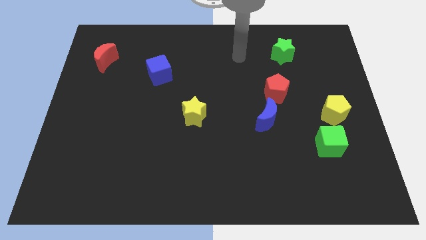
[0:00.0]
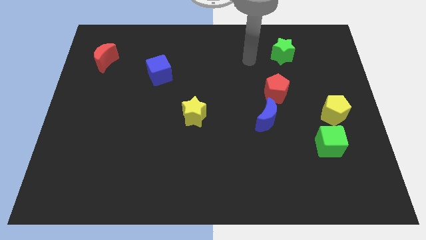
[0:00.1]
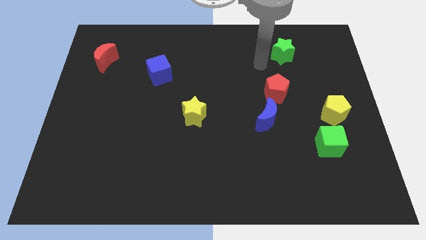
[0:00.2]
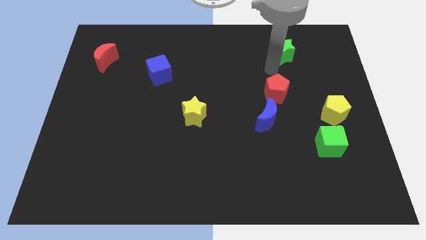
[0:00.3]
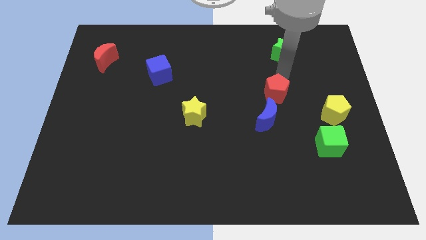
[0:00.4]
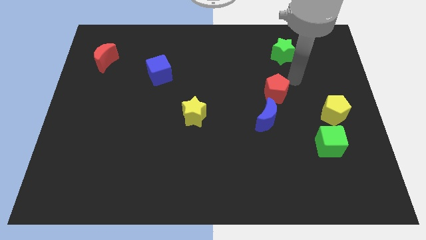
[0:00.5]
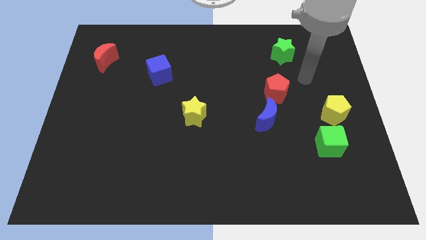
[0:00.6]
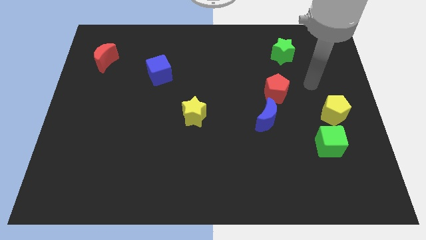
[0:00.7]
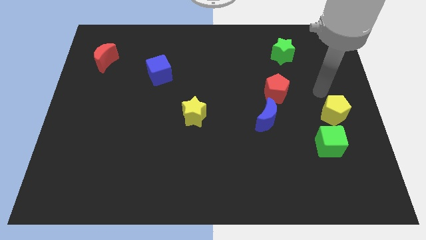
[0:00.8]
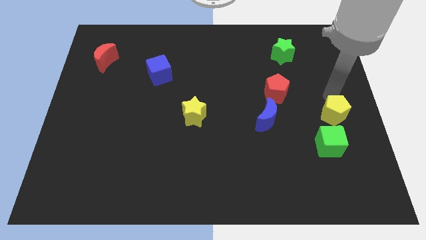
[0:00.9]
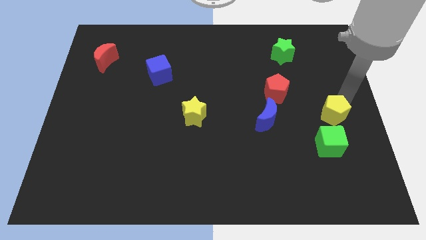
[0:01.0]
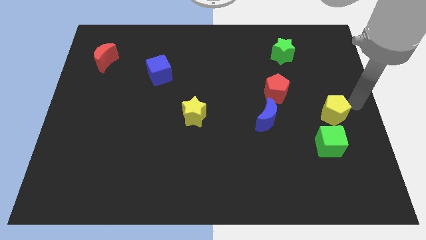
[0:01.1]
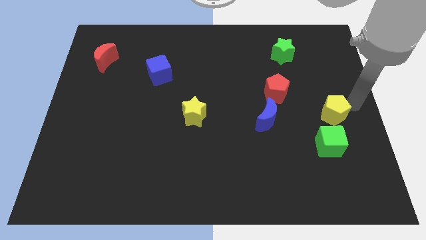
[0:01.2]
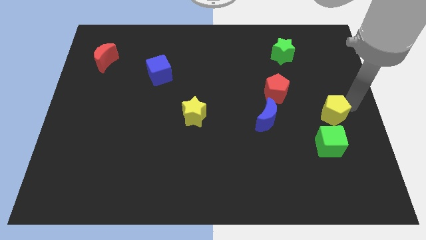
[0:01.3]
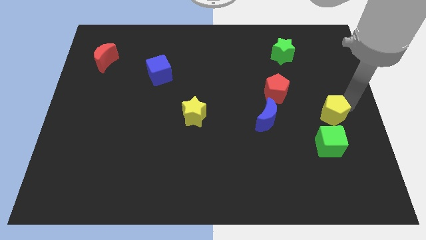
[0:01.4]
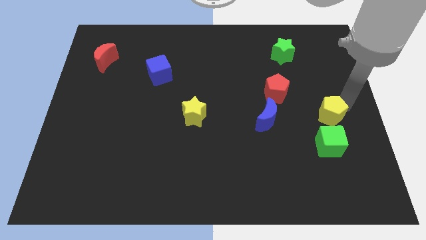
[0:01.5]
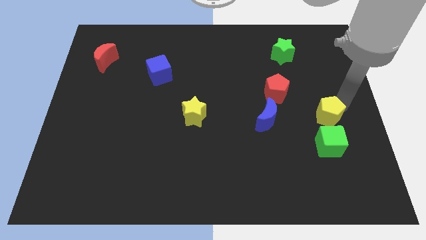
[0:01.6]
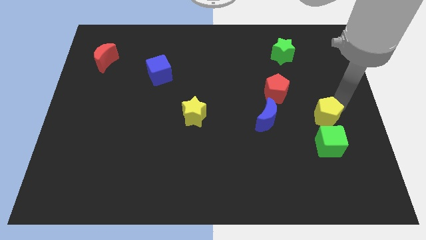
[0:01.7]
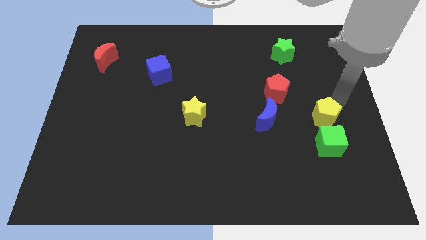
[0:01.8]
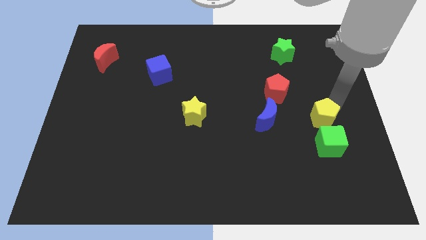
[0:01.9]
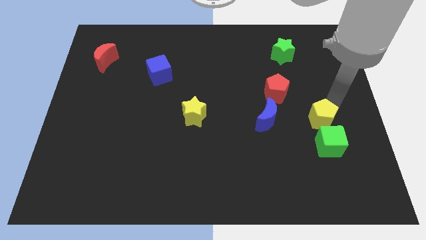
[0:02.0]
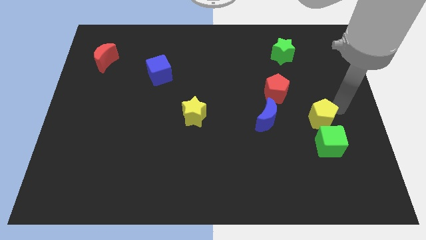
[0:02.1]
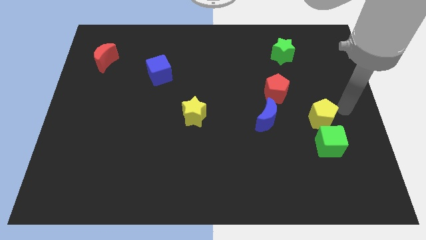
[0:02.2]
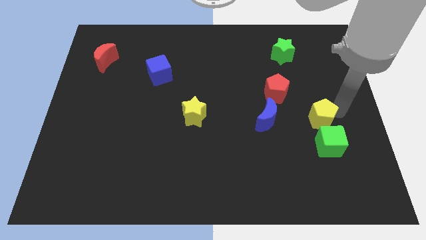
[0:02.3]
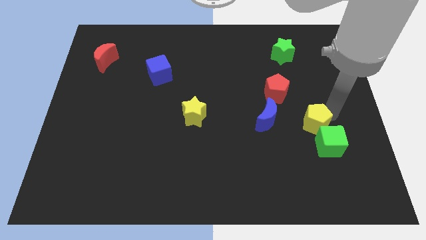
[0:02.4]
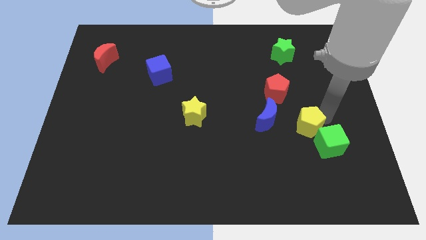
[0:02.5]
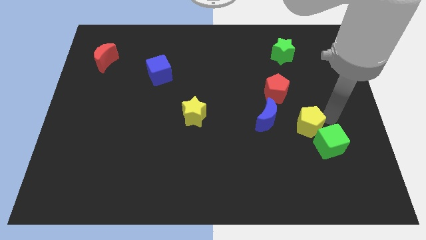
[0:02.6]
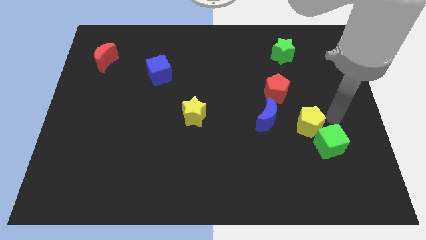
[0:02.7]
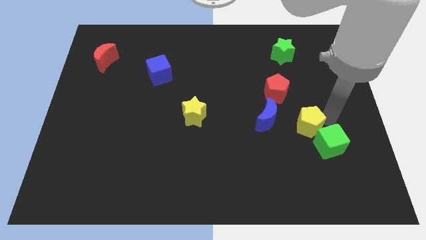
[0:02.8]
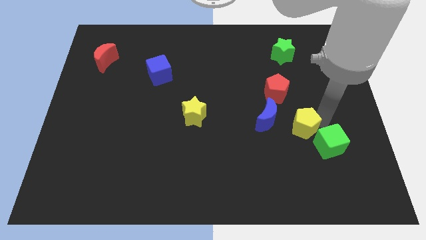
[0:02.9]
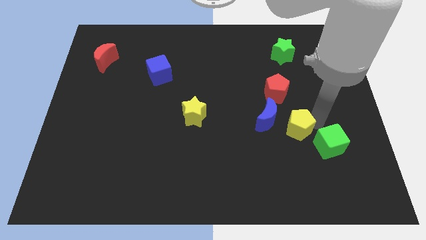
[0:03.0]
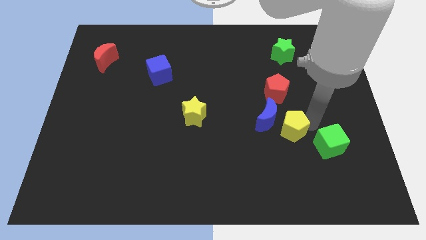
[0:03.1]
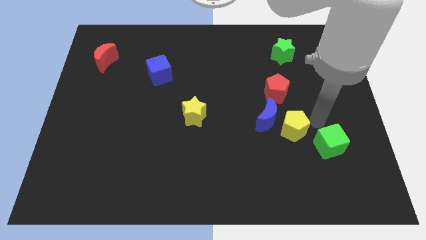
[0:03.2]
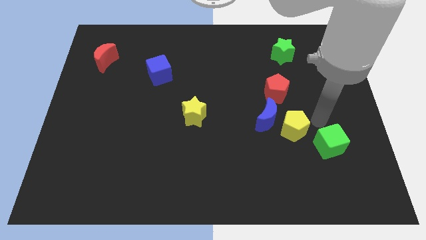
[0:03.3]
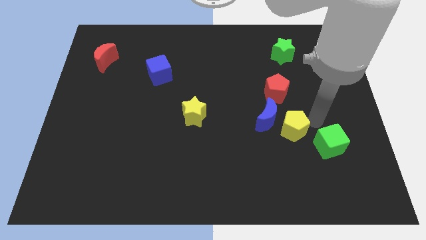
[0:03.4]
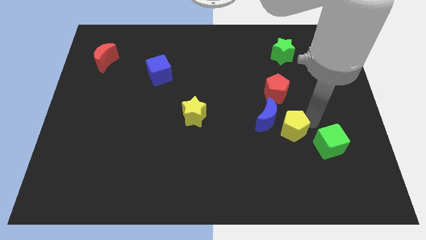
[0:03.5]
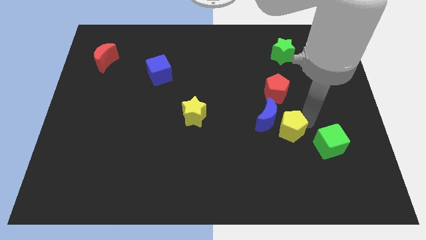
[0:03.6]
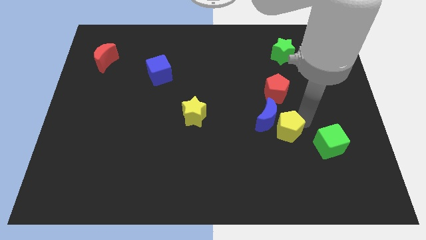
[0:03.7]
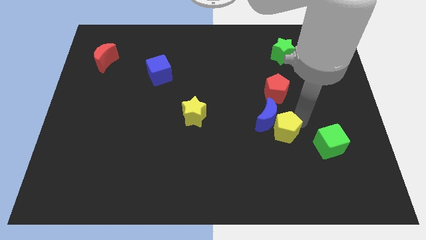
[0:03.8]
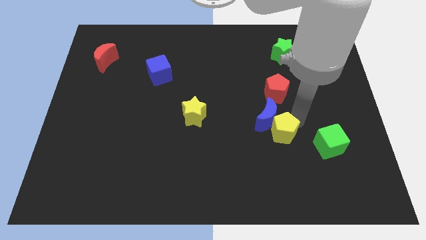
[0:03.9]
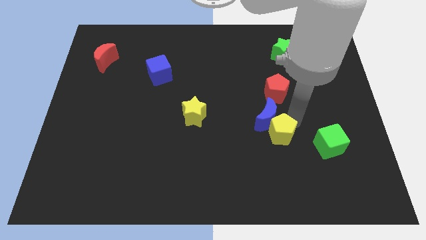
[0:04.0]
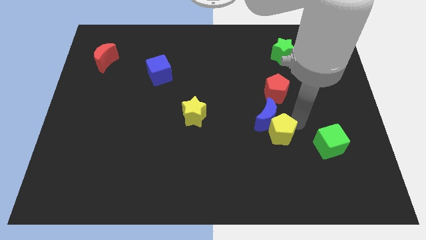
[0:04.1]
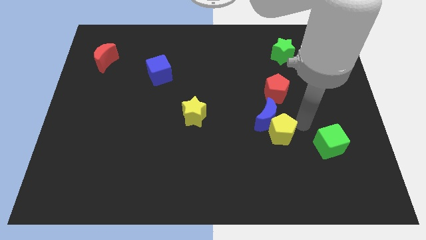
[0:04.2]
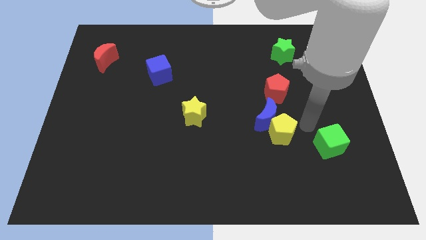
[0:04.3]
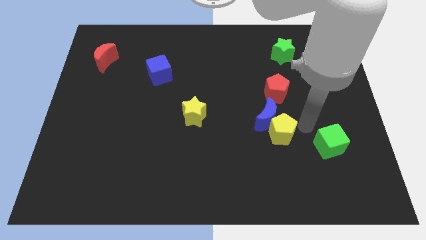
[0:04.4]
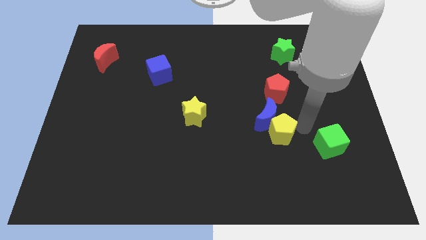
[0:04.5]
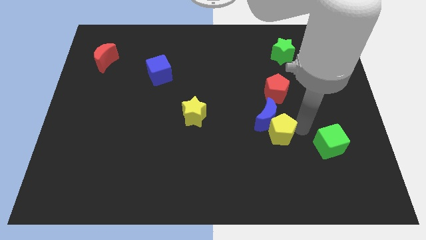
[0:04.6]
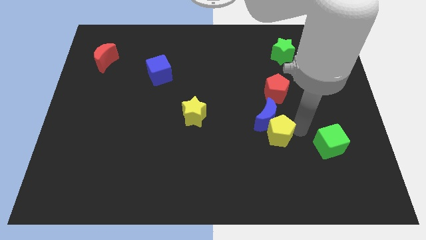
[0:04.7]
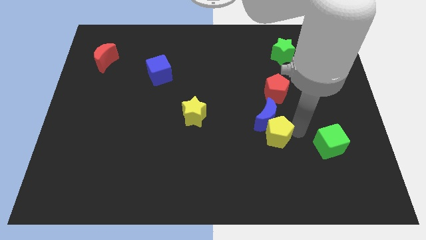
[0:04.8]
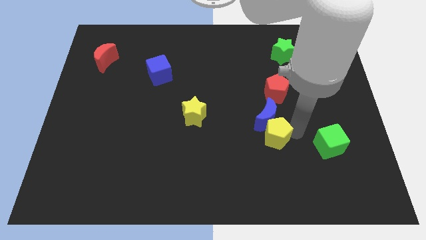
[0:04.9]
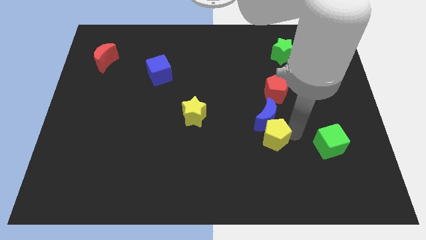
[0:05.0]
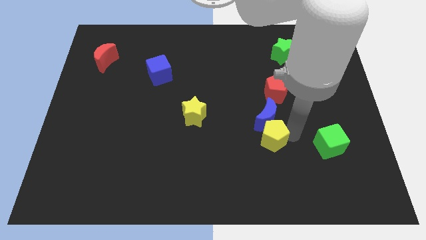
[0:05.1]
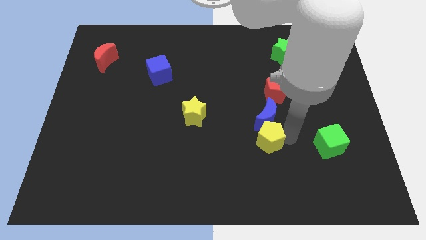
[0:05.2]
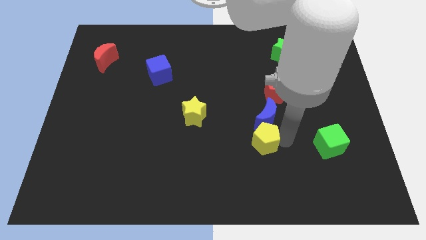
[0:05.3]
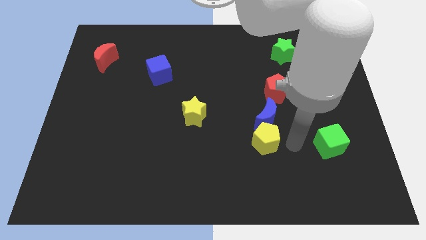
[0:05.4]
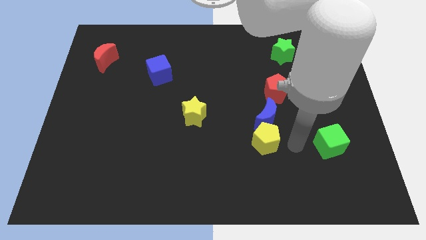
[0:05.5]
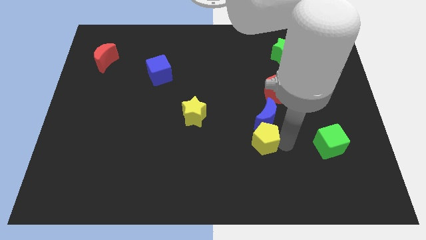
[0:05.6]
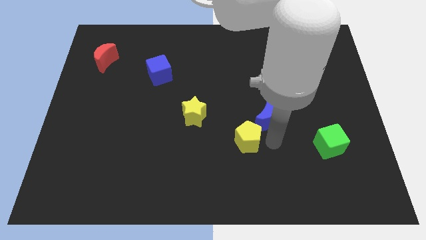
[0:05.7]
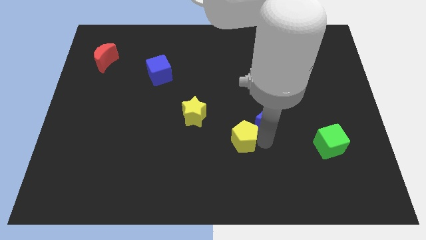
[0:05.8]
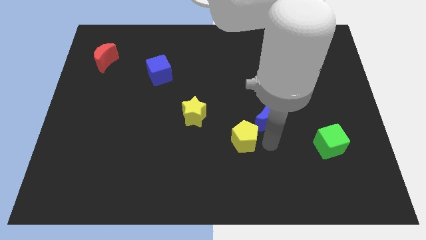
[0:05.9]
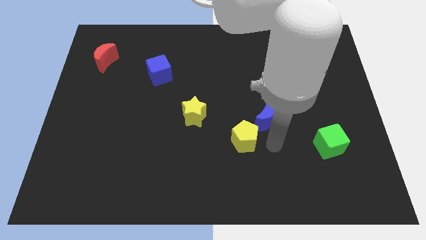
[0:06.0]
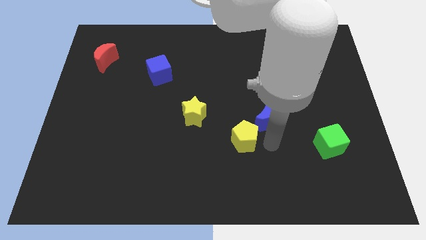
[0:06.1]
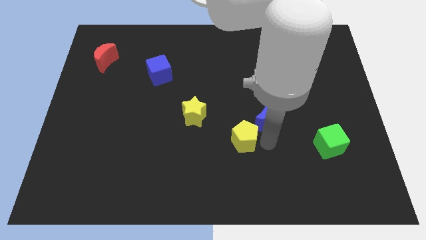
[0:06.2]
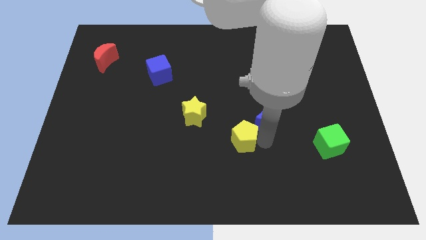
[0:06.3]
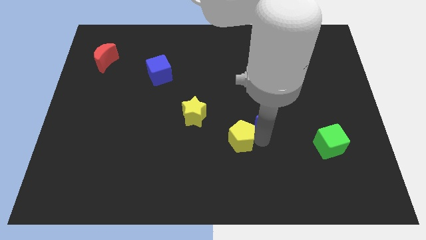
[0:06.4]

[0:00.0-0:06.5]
put the yellow pentagon to the bottom right of the yellow star

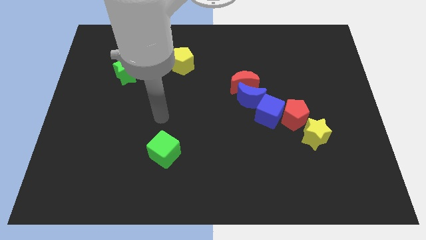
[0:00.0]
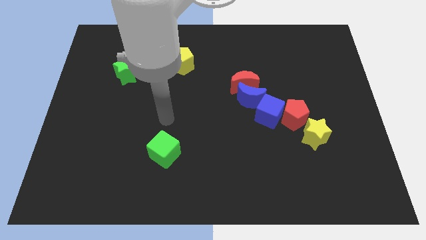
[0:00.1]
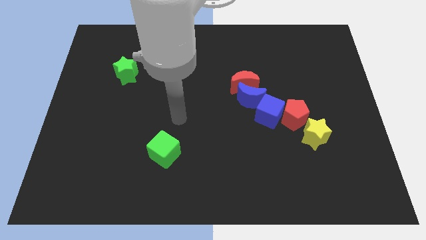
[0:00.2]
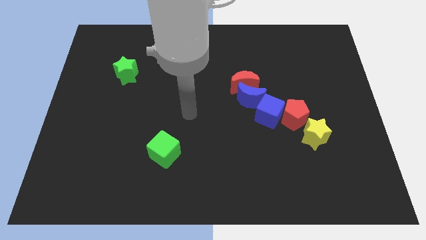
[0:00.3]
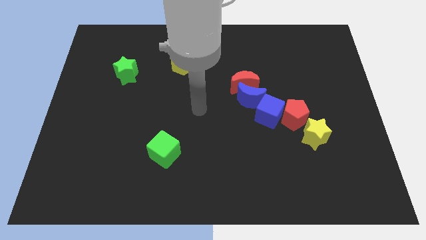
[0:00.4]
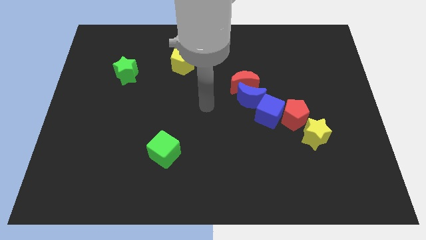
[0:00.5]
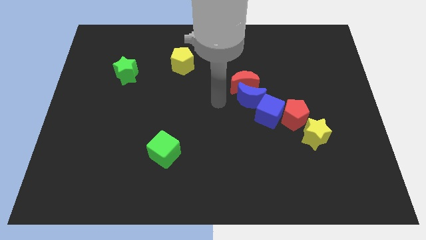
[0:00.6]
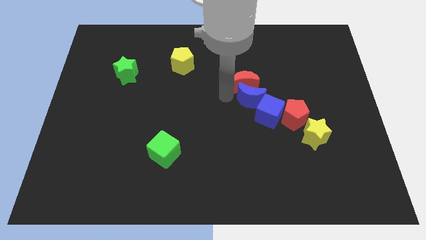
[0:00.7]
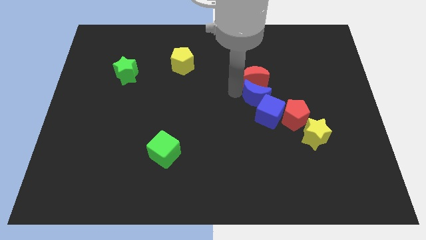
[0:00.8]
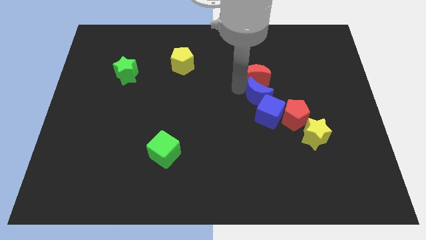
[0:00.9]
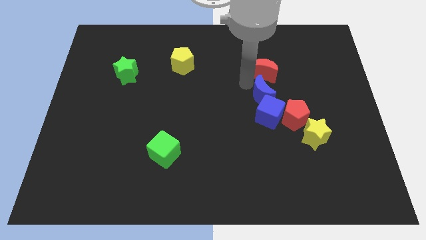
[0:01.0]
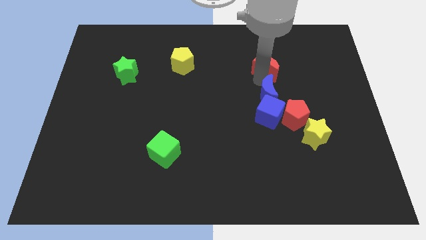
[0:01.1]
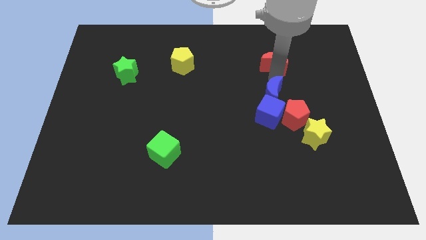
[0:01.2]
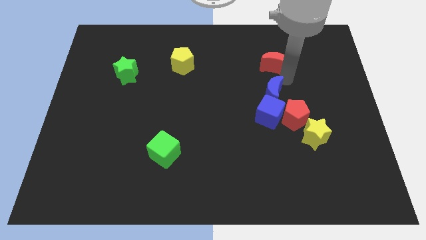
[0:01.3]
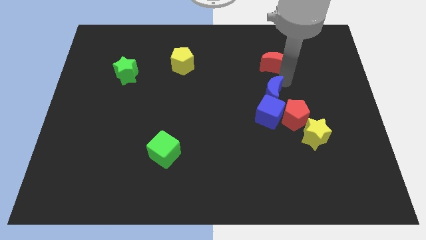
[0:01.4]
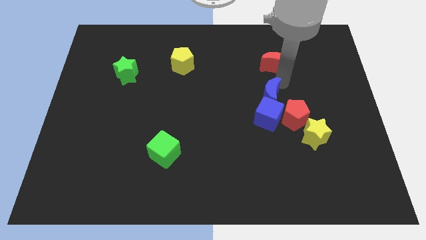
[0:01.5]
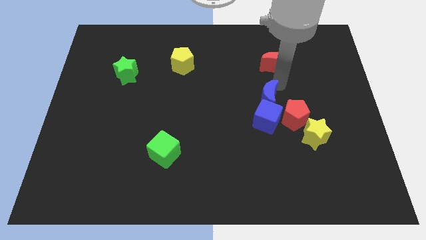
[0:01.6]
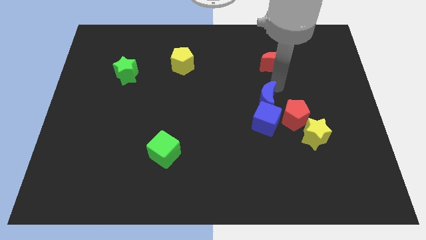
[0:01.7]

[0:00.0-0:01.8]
put the blue moon to the left side of the red pentagon
